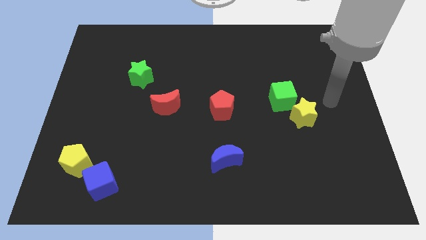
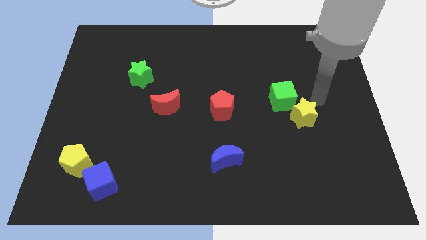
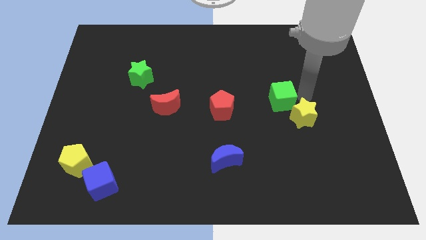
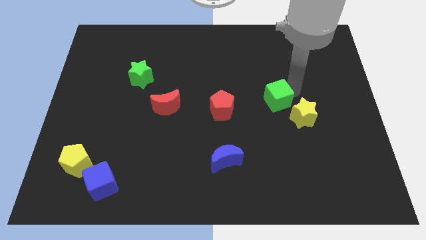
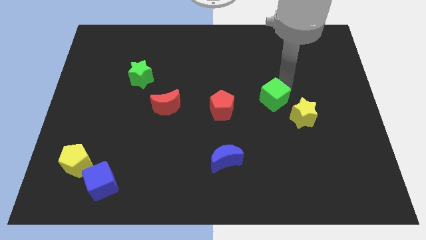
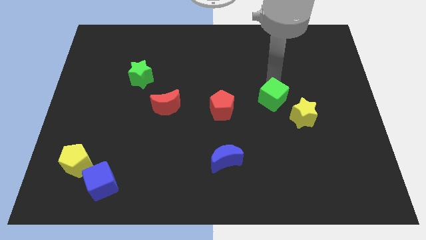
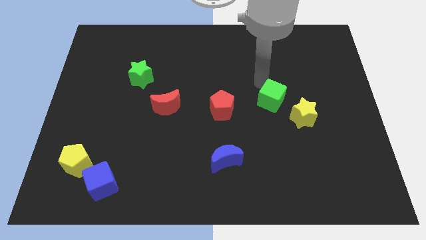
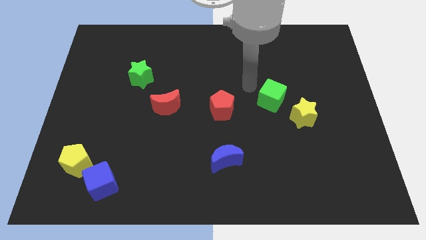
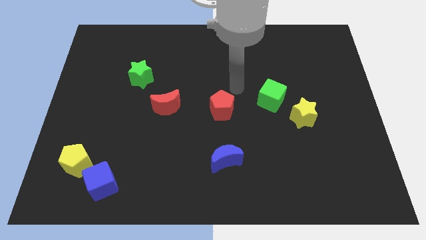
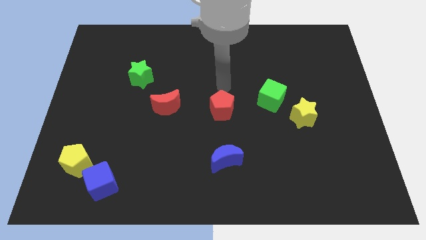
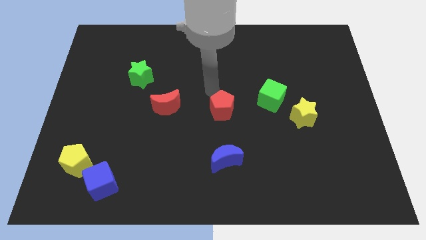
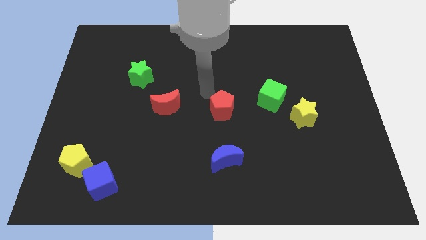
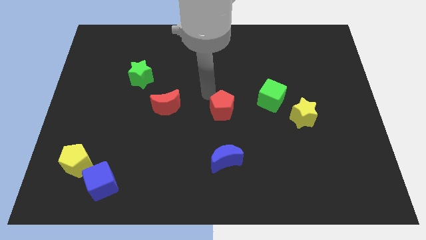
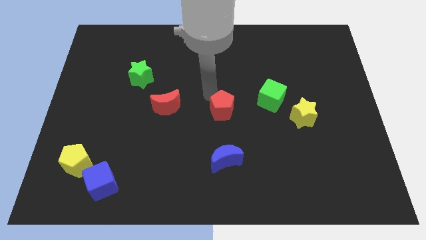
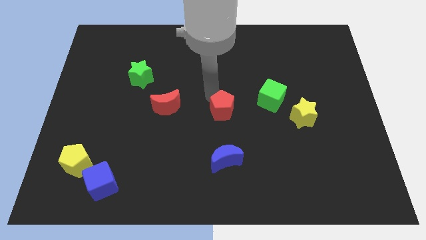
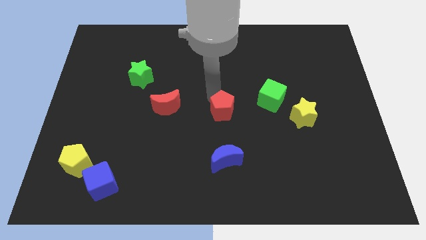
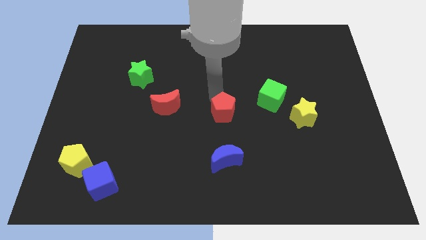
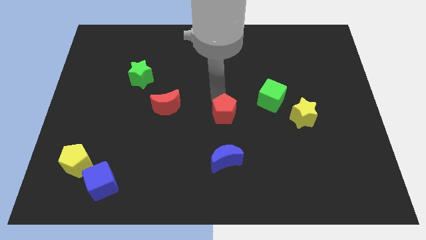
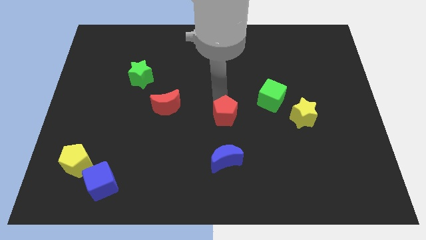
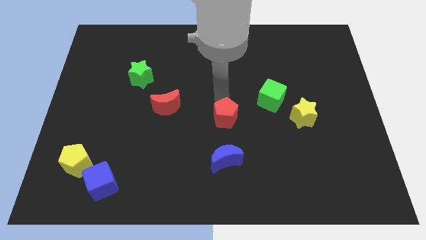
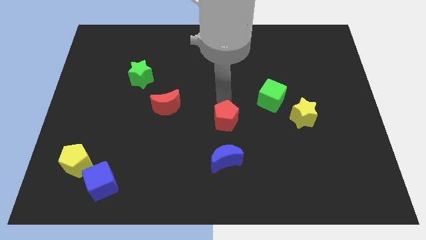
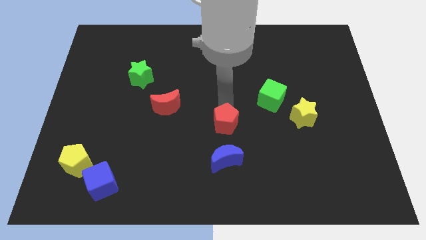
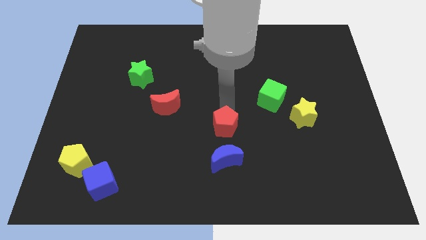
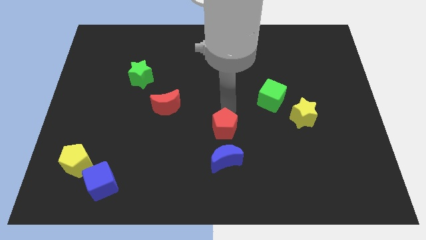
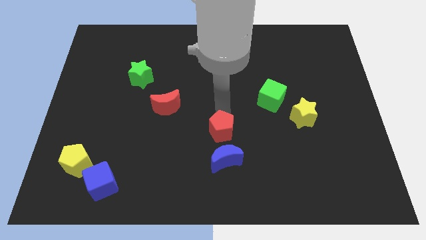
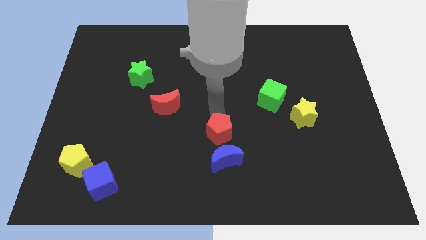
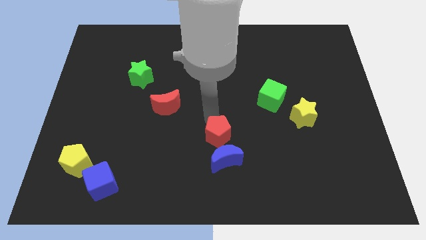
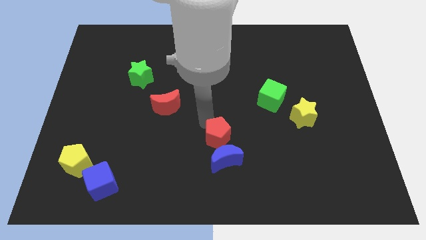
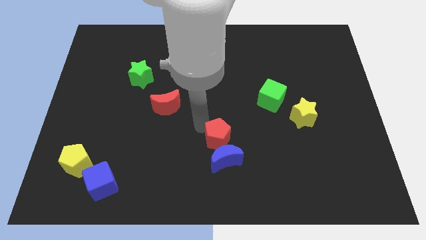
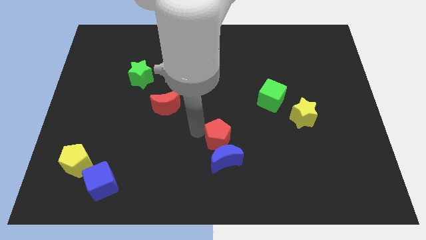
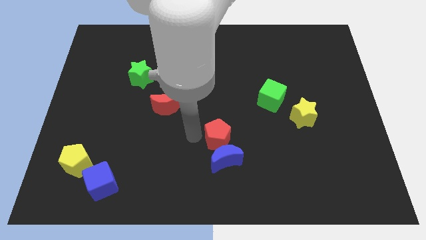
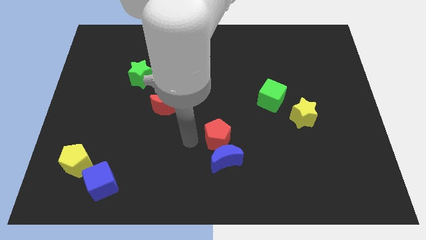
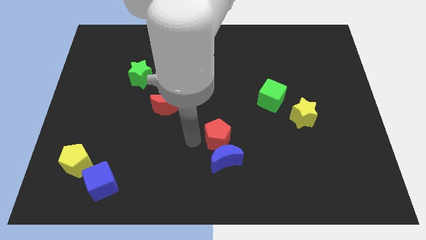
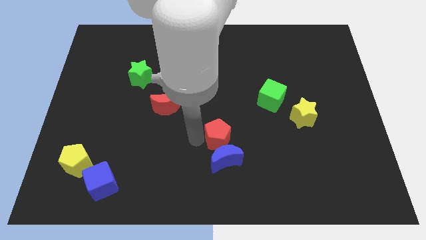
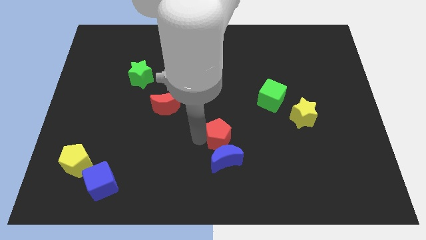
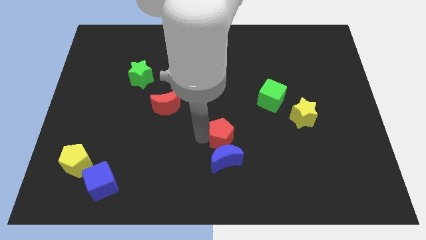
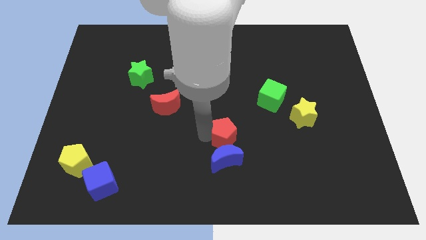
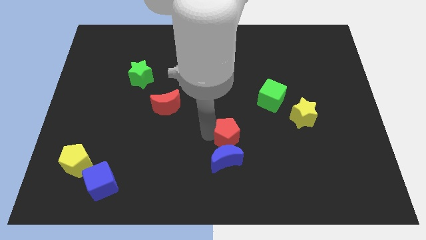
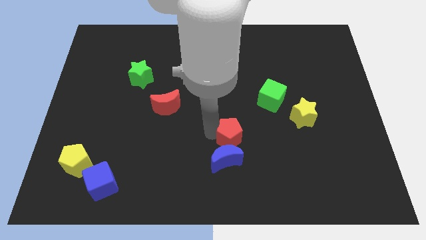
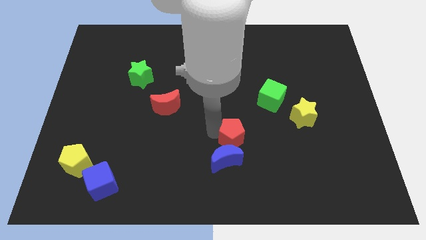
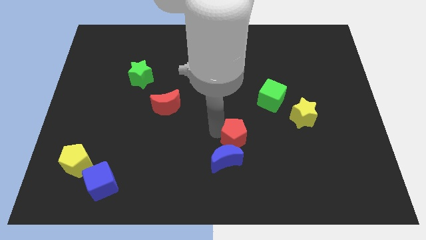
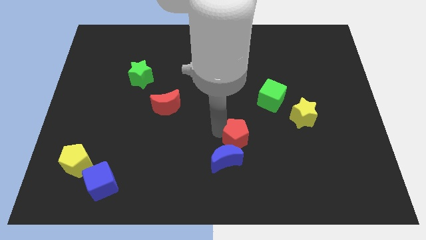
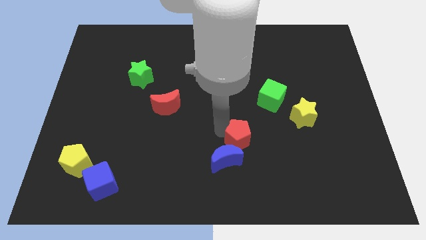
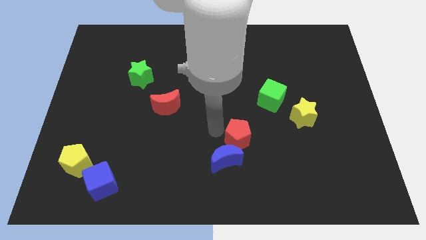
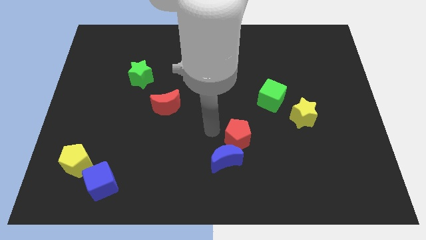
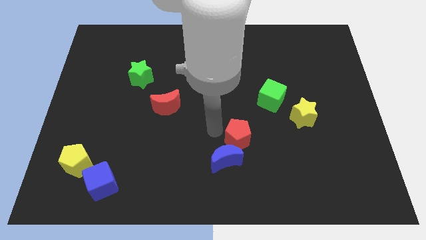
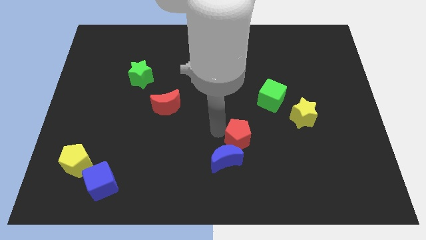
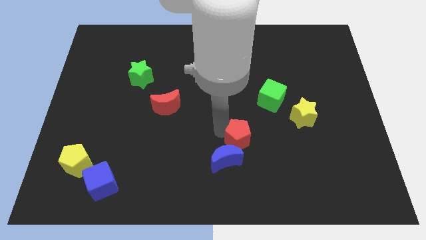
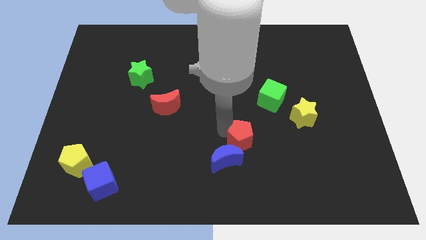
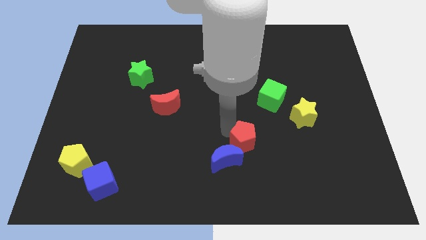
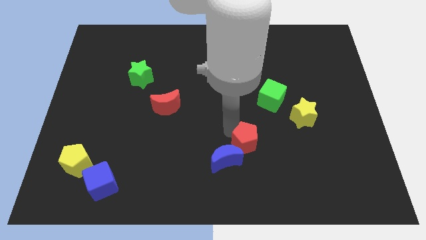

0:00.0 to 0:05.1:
put the red pentagon to the right of the blue moon

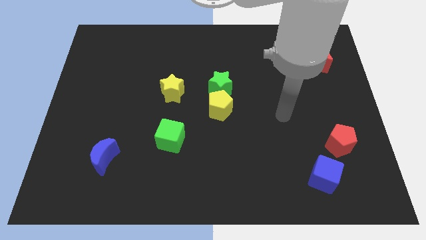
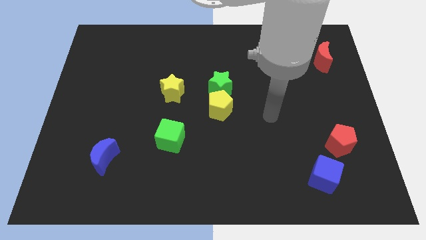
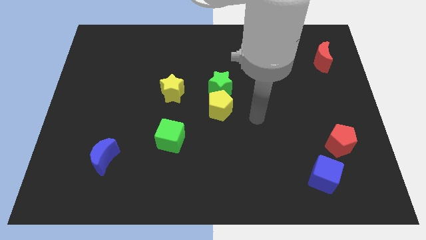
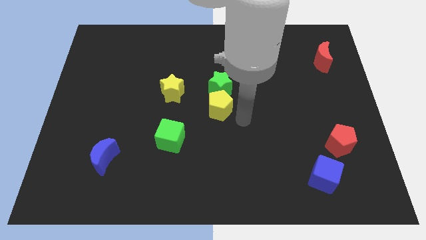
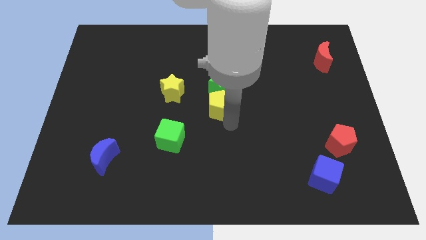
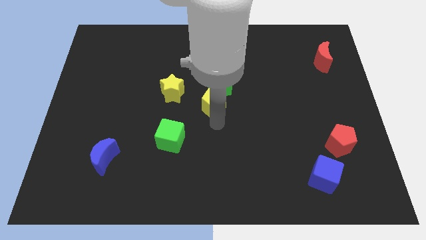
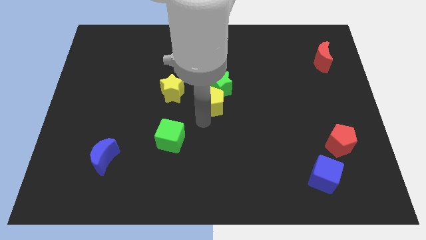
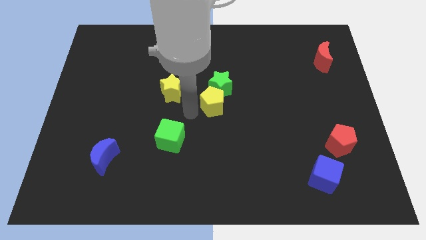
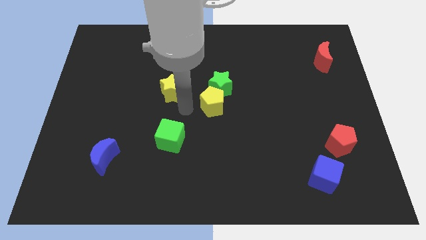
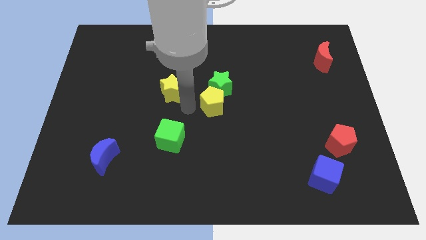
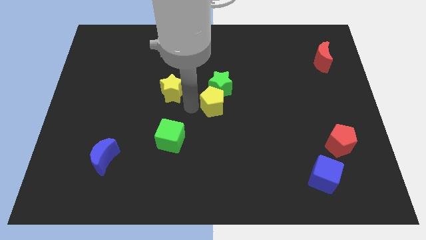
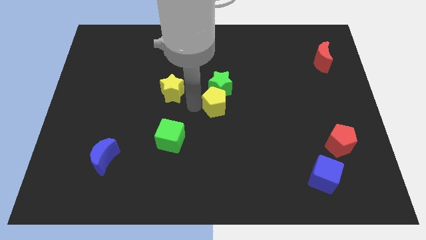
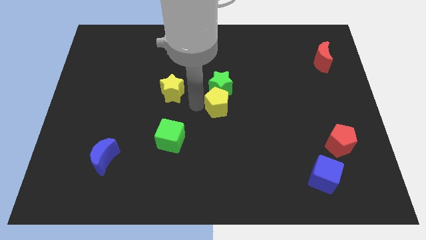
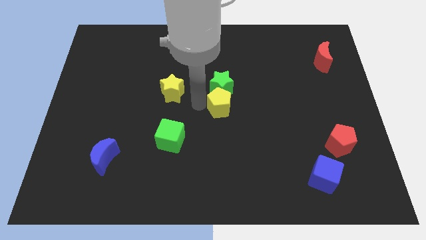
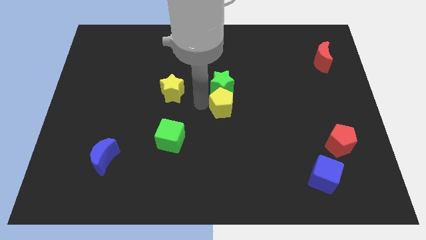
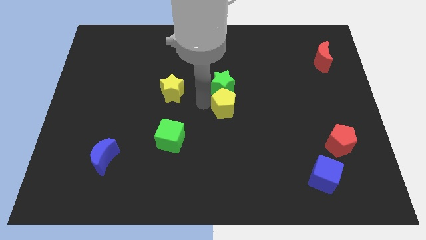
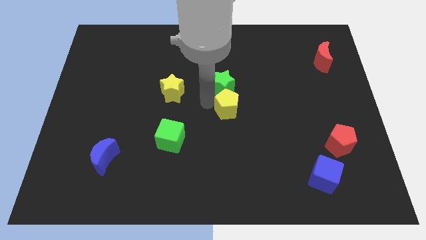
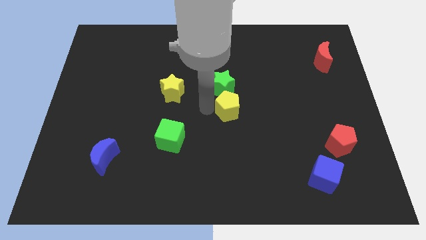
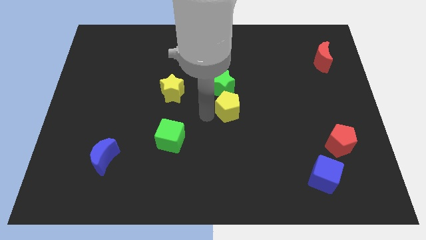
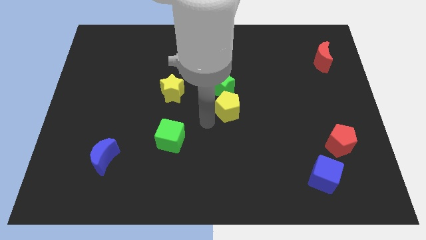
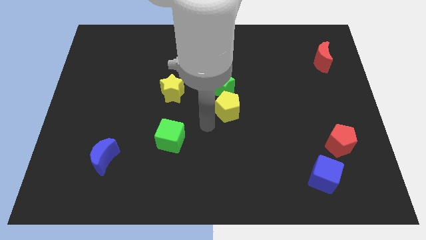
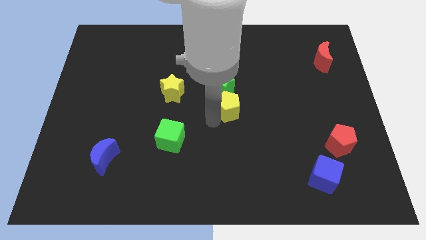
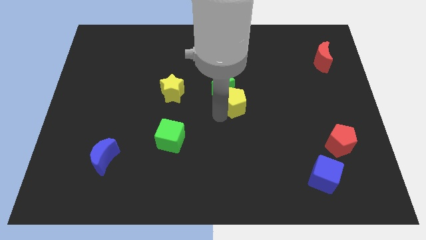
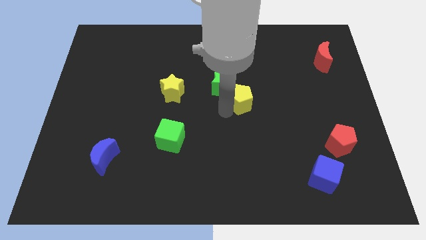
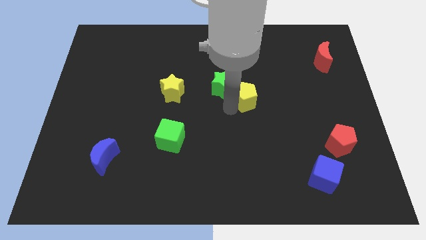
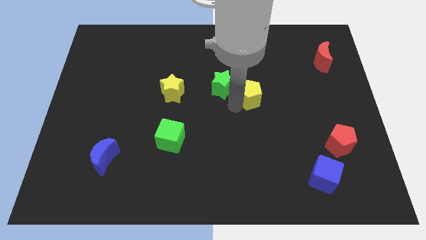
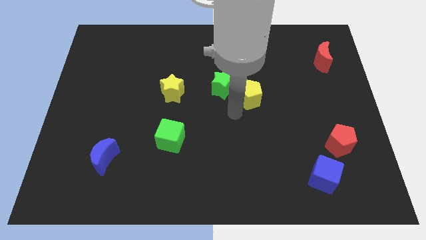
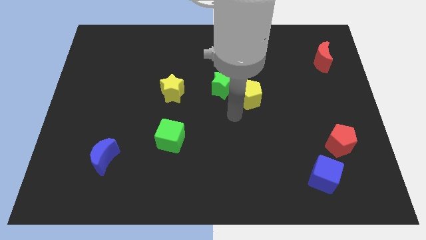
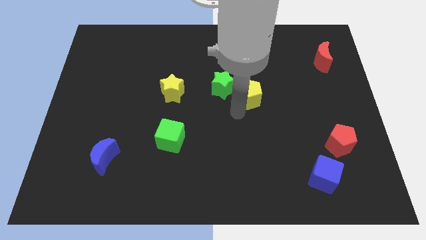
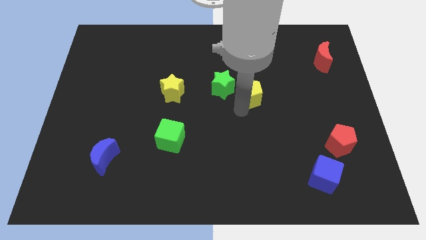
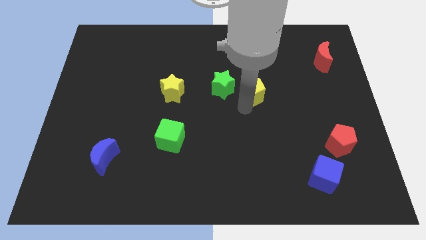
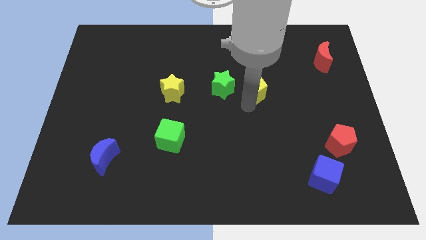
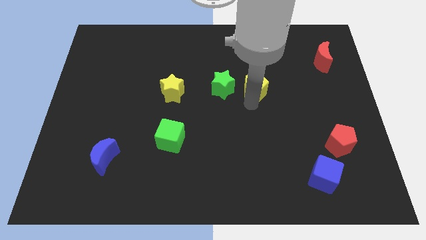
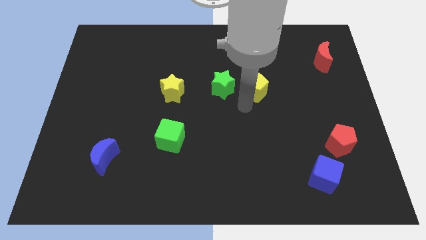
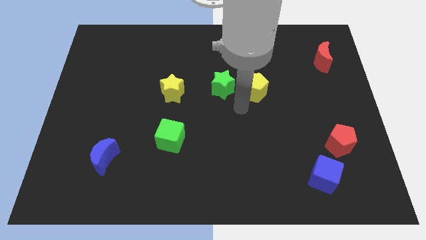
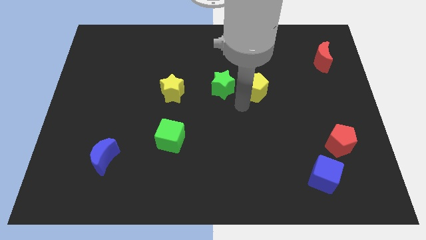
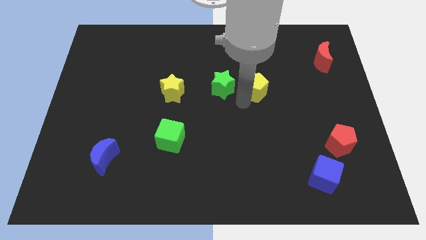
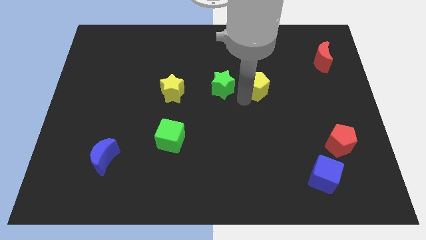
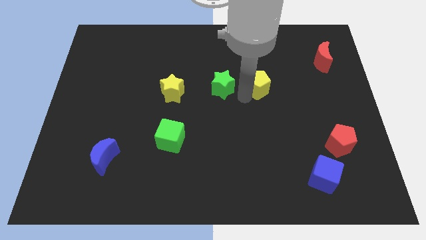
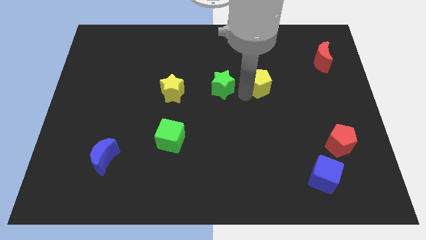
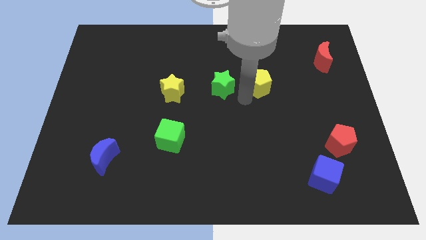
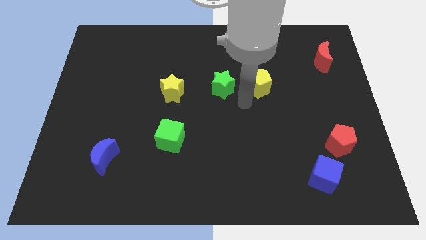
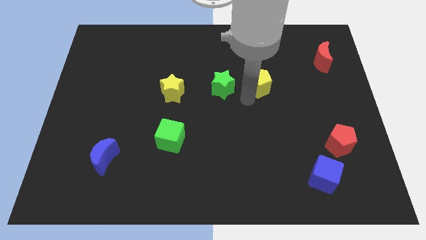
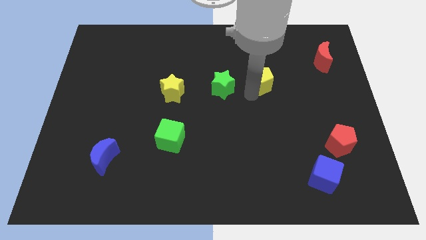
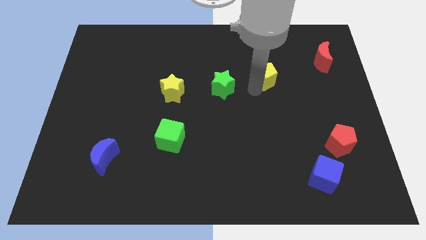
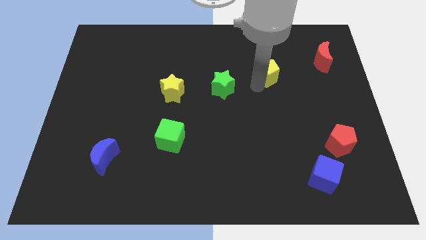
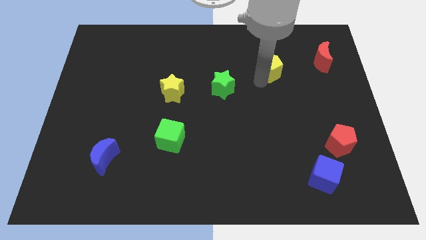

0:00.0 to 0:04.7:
put the yellow pentagon to the left of the red moon
